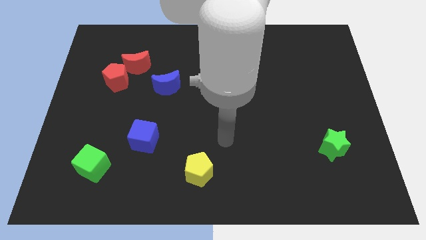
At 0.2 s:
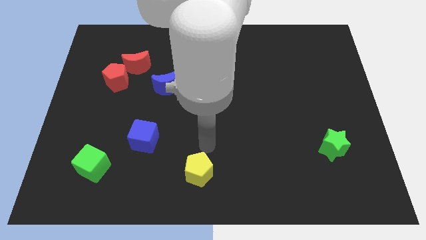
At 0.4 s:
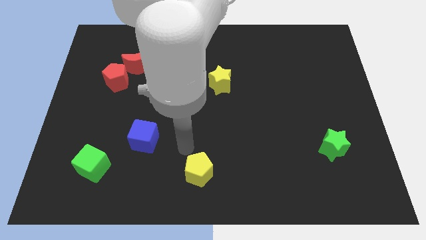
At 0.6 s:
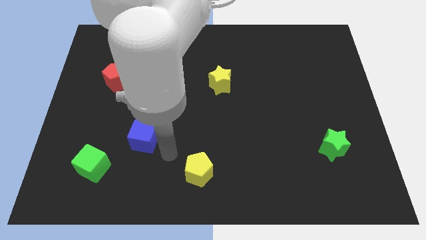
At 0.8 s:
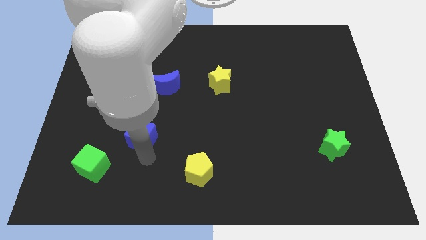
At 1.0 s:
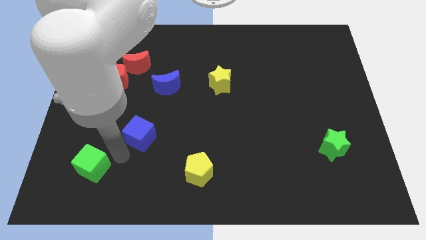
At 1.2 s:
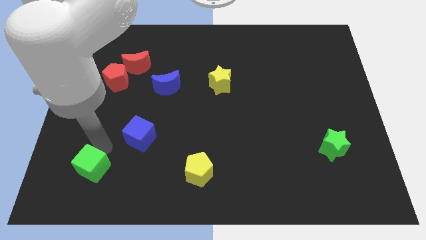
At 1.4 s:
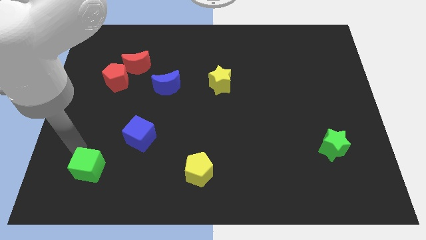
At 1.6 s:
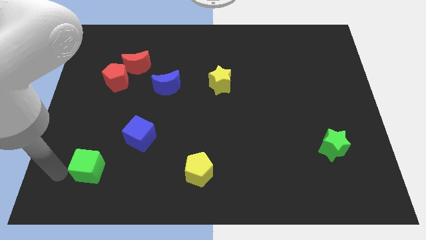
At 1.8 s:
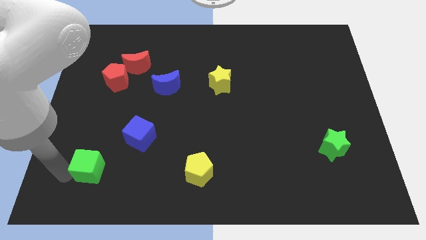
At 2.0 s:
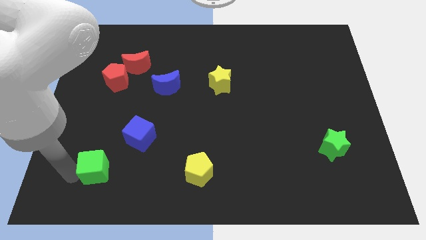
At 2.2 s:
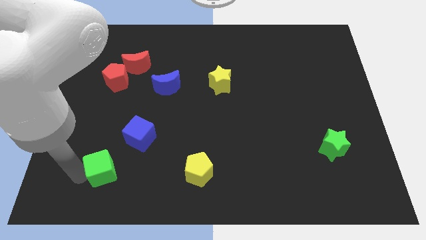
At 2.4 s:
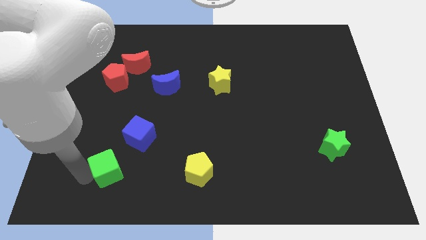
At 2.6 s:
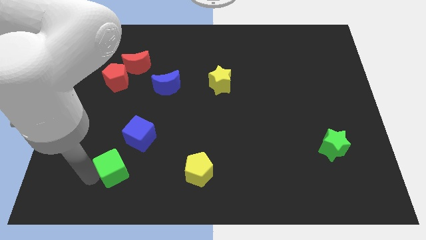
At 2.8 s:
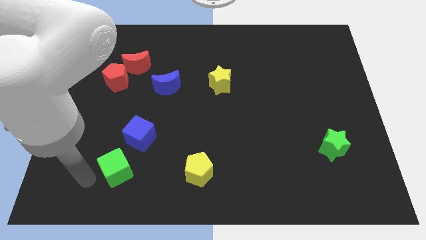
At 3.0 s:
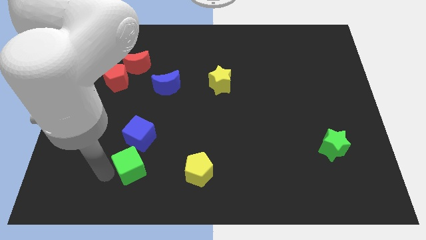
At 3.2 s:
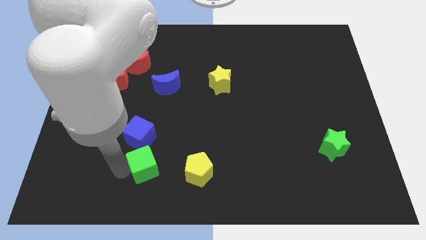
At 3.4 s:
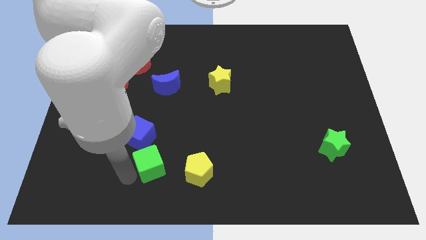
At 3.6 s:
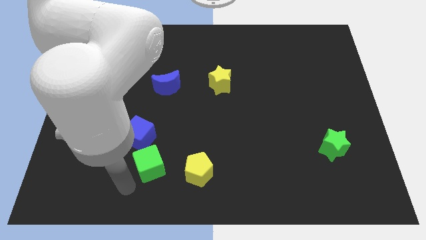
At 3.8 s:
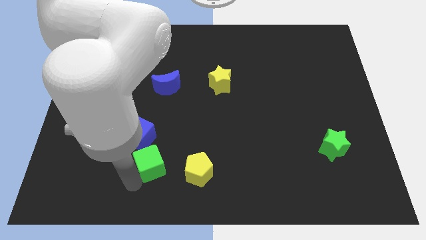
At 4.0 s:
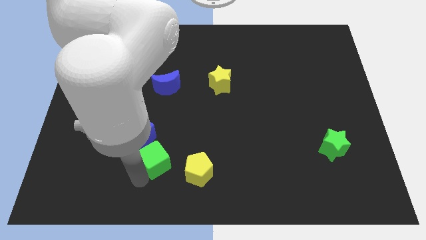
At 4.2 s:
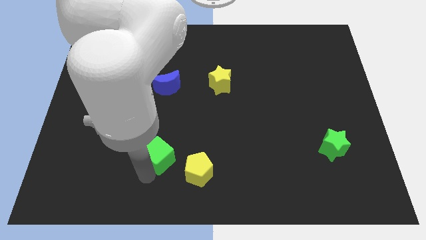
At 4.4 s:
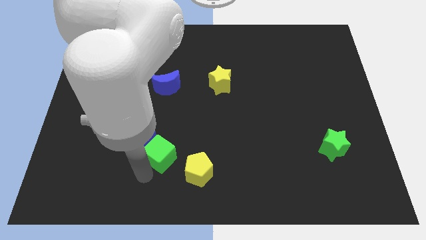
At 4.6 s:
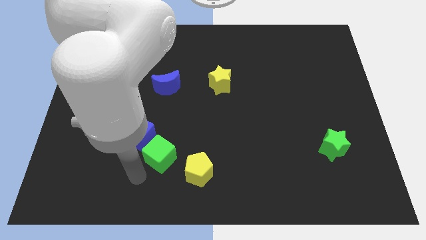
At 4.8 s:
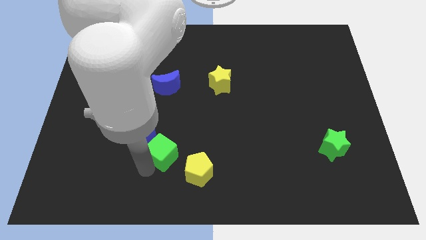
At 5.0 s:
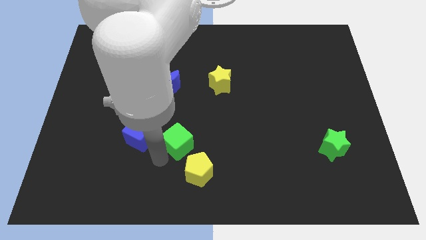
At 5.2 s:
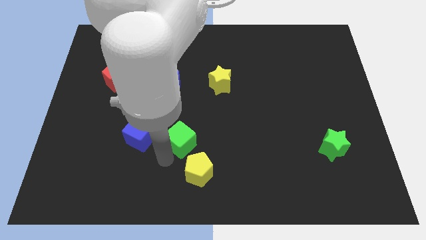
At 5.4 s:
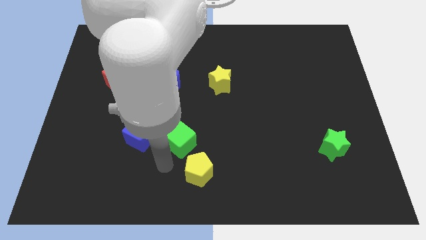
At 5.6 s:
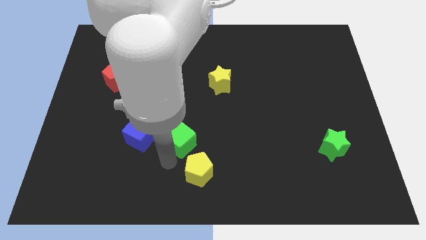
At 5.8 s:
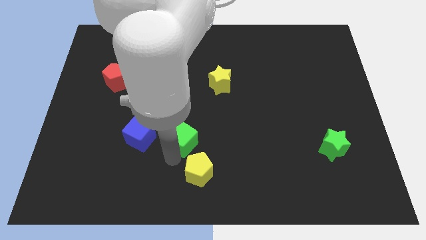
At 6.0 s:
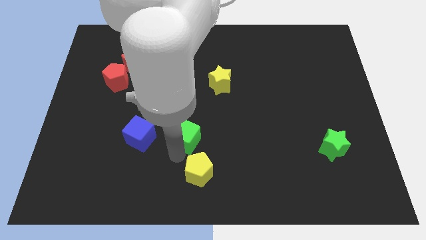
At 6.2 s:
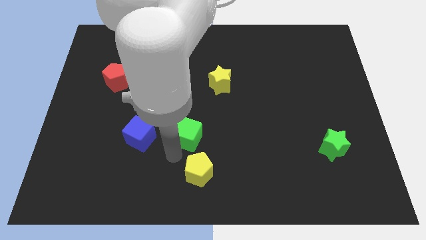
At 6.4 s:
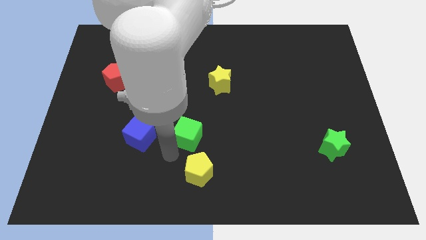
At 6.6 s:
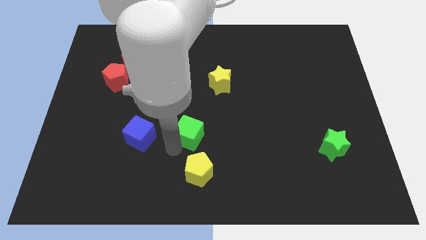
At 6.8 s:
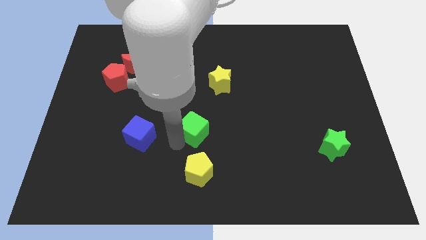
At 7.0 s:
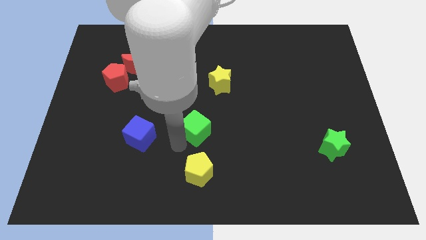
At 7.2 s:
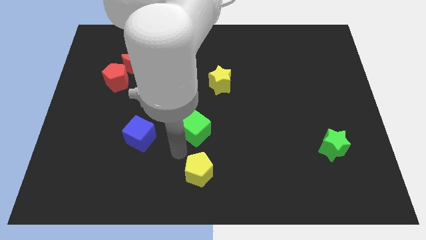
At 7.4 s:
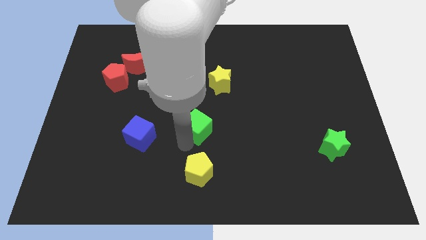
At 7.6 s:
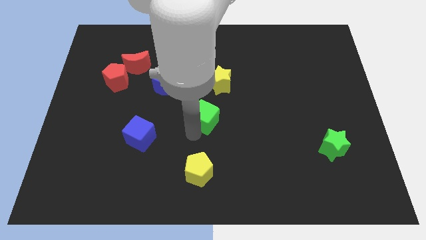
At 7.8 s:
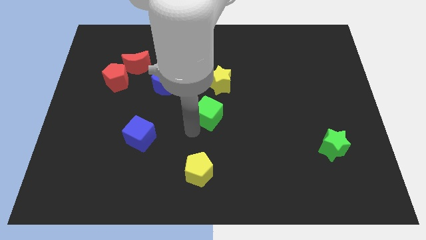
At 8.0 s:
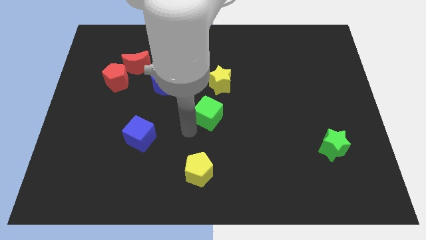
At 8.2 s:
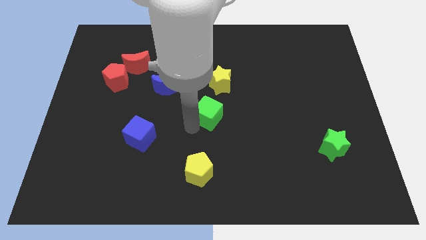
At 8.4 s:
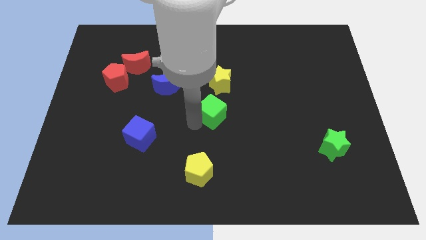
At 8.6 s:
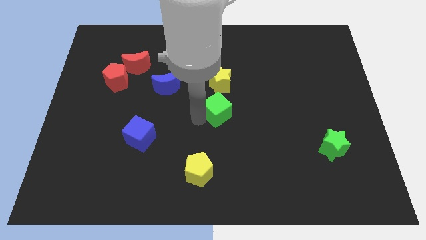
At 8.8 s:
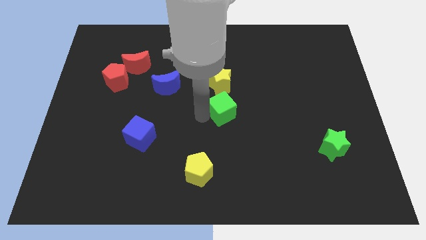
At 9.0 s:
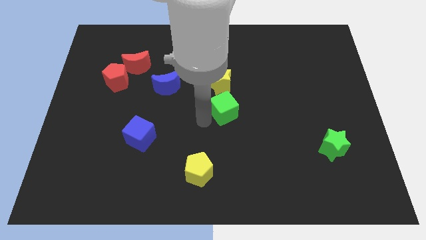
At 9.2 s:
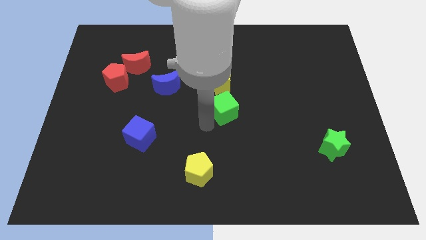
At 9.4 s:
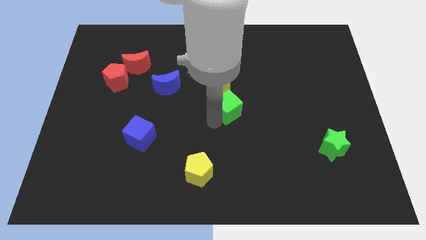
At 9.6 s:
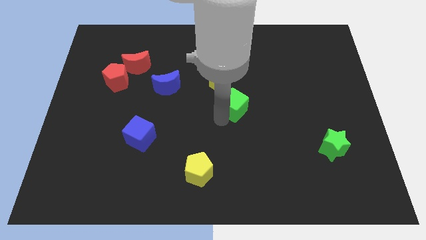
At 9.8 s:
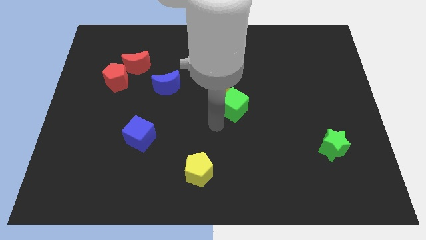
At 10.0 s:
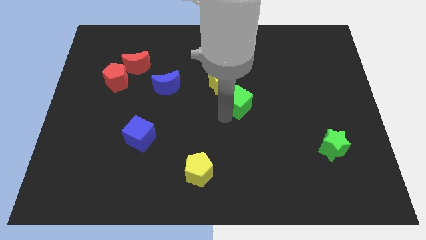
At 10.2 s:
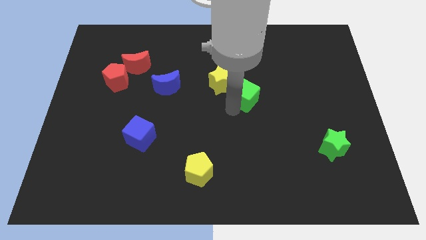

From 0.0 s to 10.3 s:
put the green cube right of the yellow star

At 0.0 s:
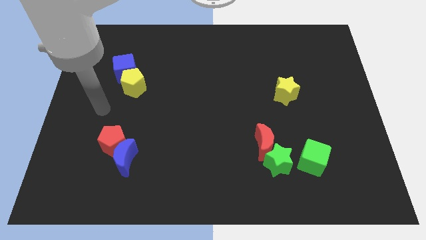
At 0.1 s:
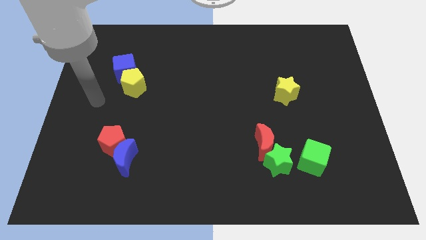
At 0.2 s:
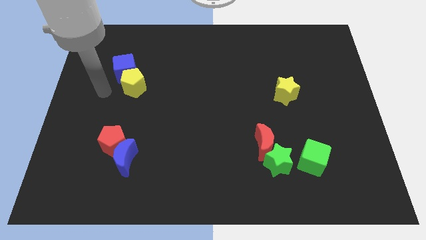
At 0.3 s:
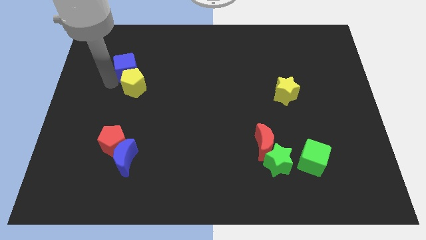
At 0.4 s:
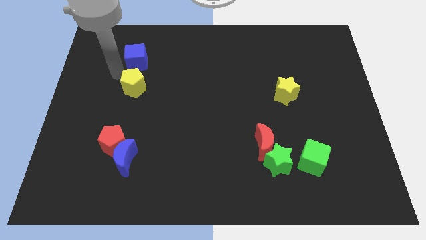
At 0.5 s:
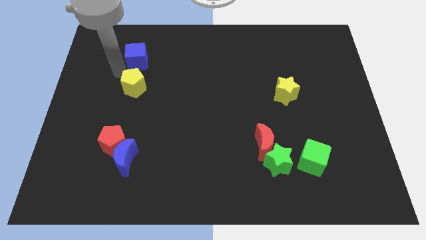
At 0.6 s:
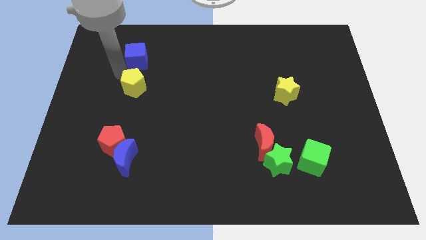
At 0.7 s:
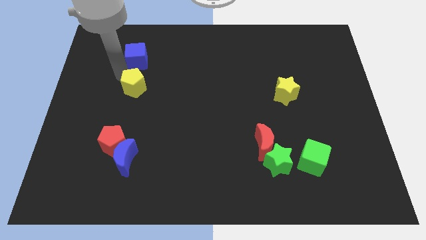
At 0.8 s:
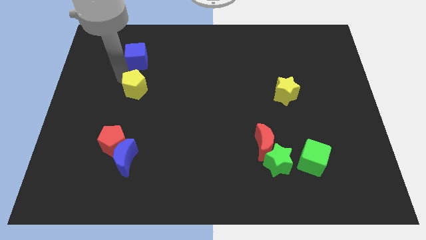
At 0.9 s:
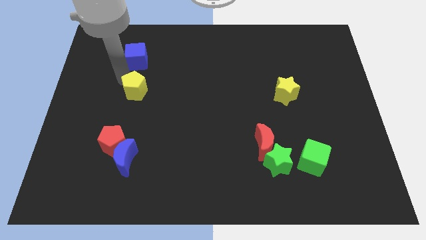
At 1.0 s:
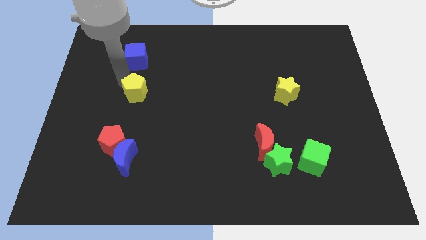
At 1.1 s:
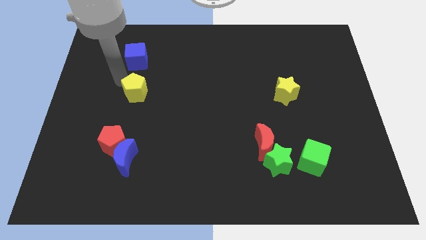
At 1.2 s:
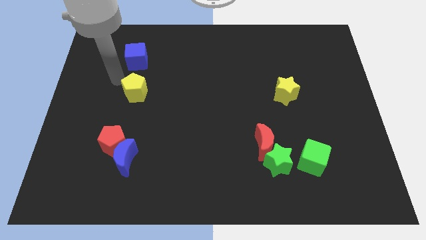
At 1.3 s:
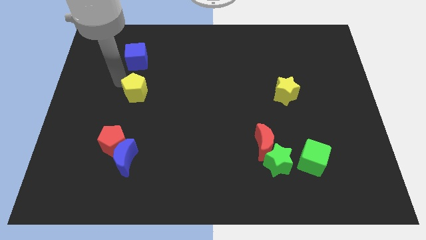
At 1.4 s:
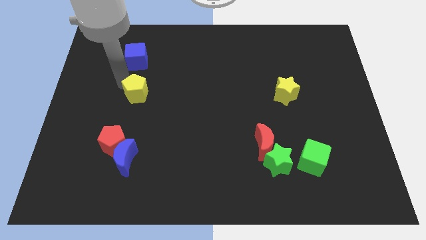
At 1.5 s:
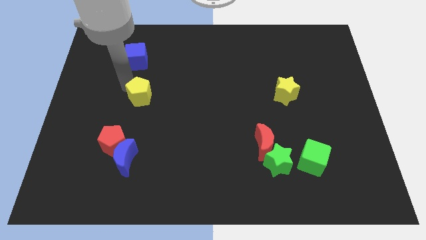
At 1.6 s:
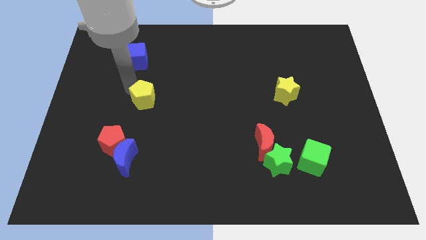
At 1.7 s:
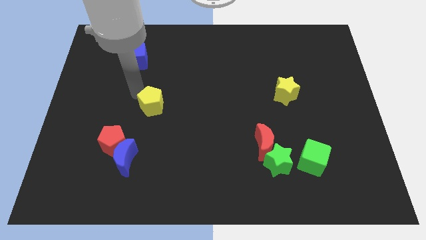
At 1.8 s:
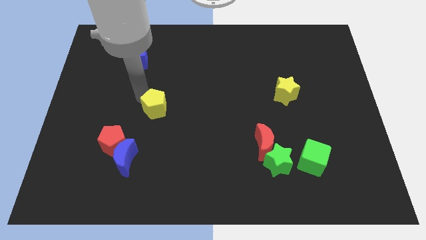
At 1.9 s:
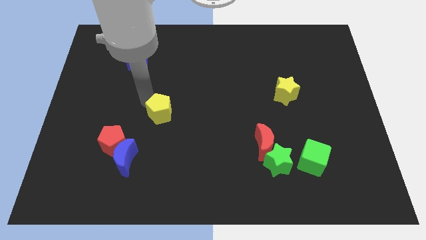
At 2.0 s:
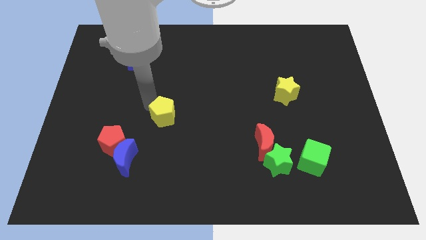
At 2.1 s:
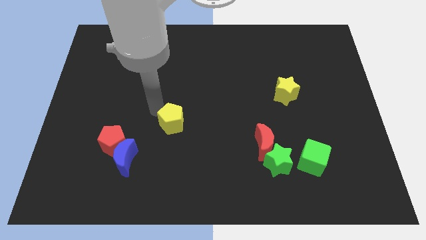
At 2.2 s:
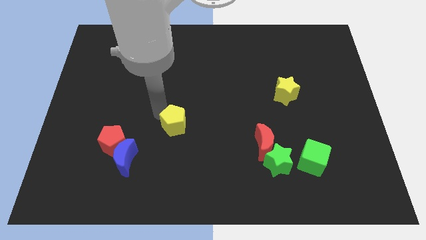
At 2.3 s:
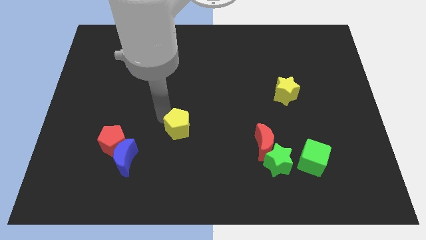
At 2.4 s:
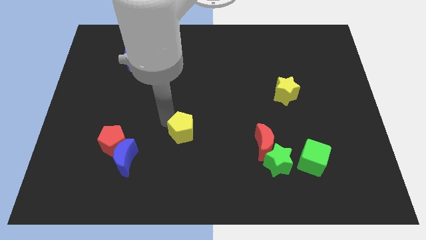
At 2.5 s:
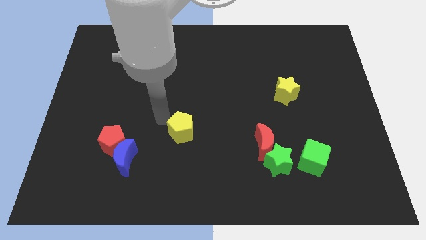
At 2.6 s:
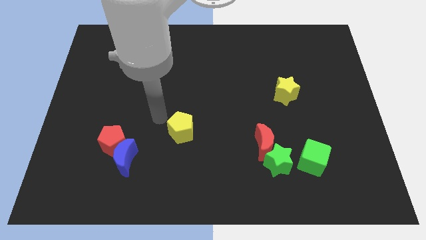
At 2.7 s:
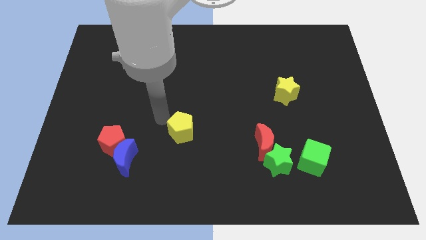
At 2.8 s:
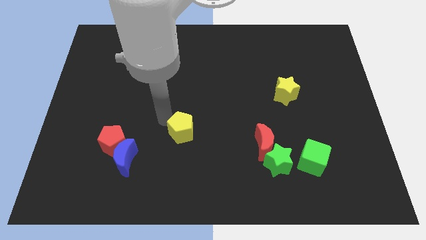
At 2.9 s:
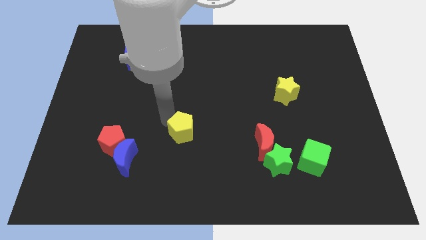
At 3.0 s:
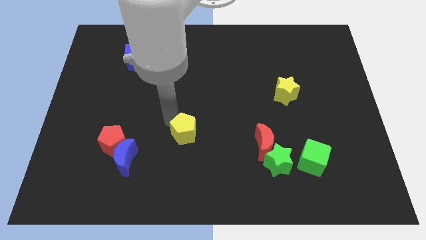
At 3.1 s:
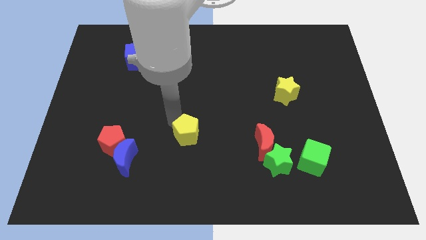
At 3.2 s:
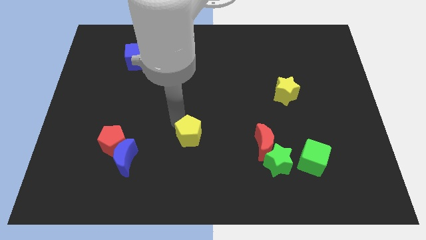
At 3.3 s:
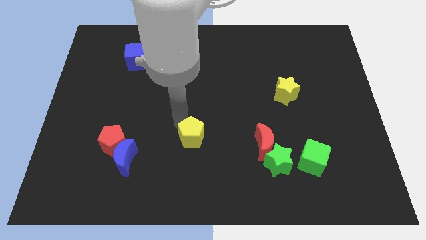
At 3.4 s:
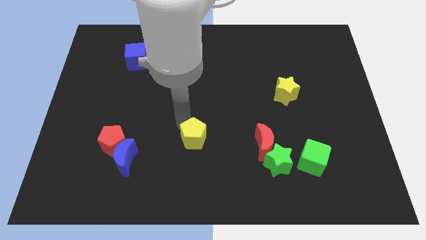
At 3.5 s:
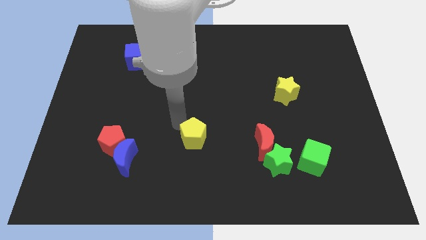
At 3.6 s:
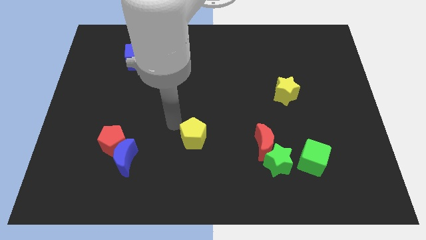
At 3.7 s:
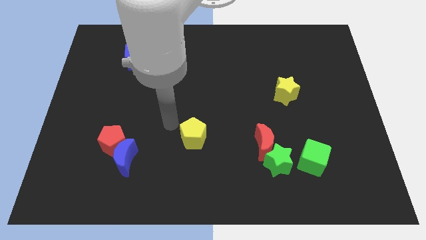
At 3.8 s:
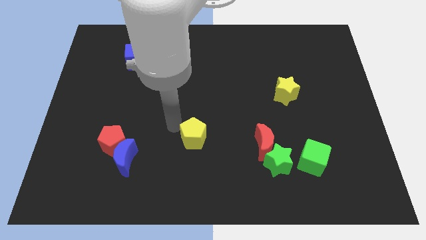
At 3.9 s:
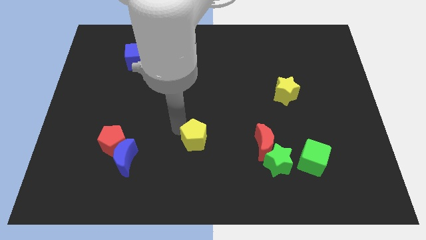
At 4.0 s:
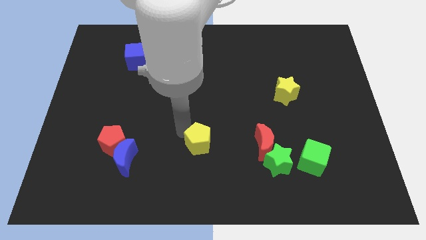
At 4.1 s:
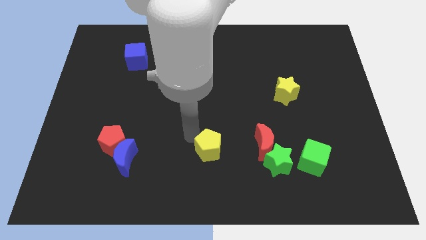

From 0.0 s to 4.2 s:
put the yellow pentagon to the left side of the green star
